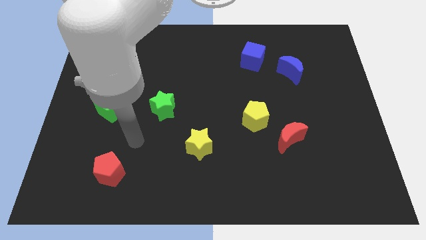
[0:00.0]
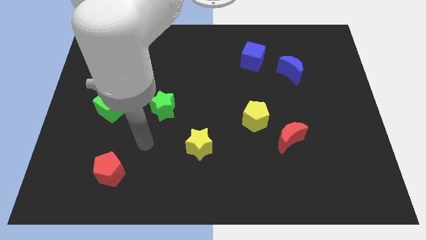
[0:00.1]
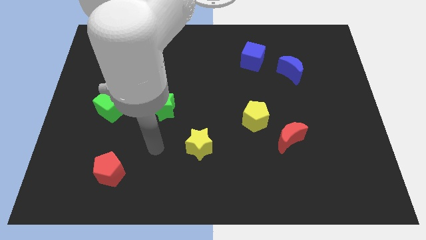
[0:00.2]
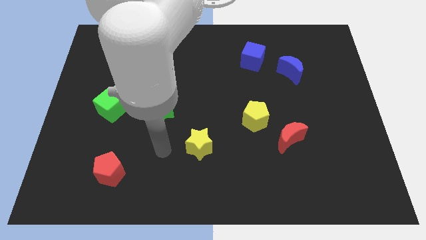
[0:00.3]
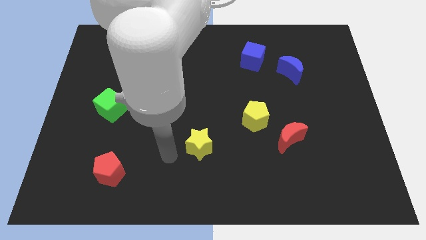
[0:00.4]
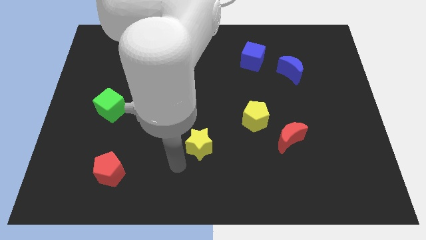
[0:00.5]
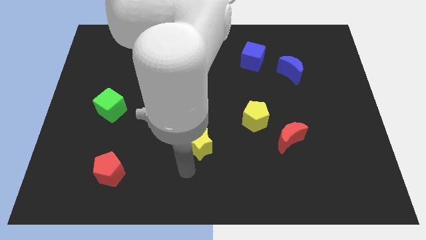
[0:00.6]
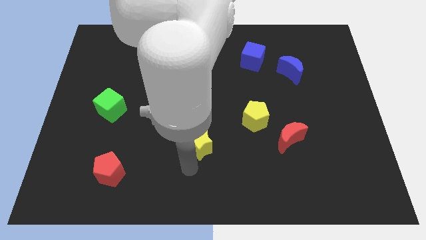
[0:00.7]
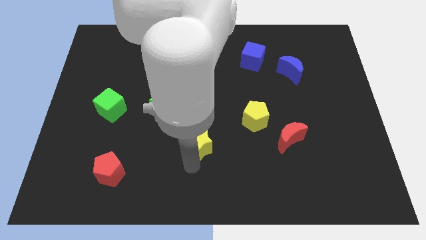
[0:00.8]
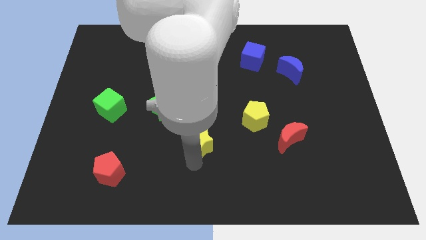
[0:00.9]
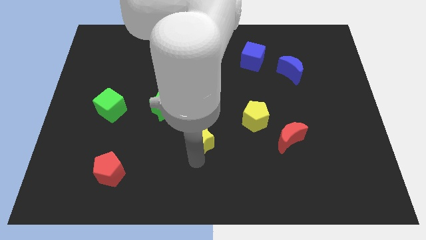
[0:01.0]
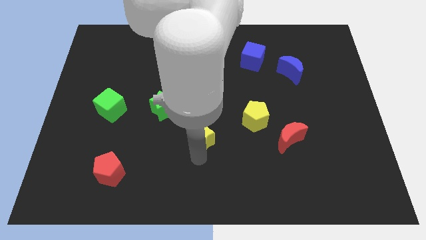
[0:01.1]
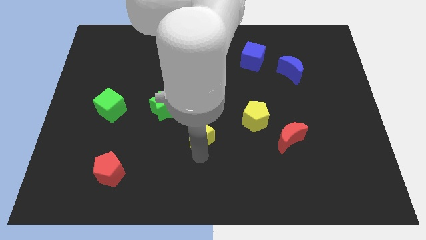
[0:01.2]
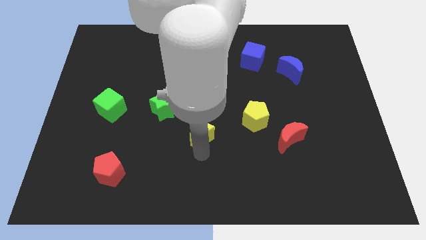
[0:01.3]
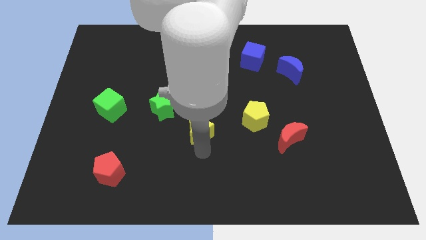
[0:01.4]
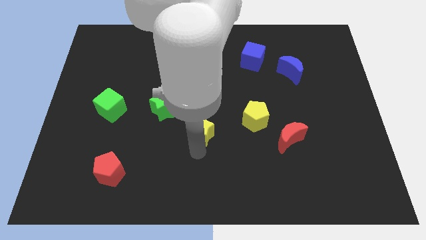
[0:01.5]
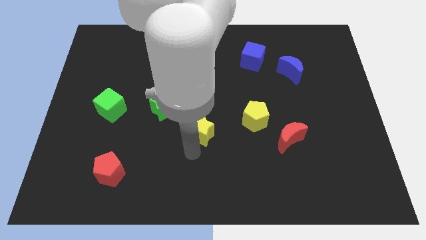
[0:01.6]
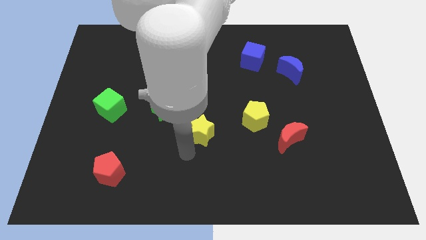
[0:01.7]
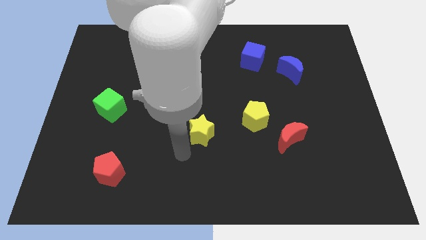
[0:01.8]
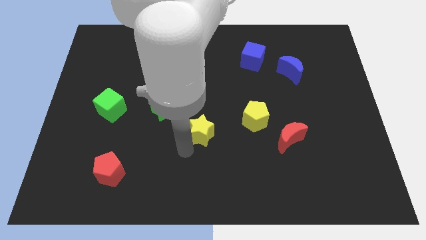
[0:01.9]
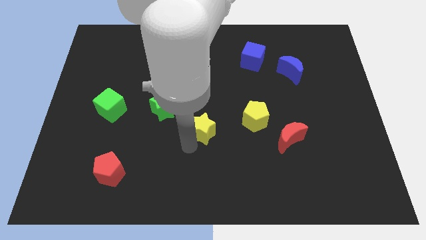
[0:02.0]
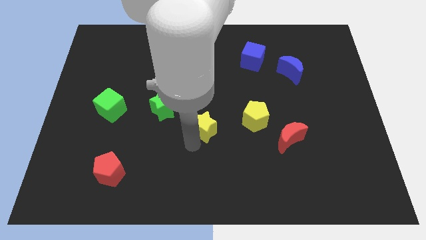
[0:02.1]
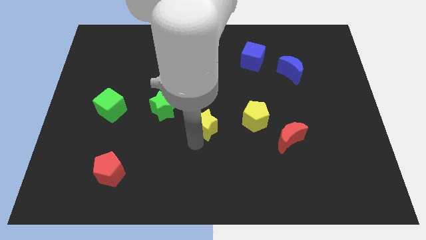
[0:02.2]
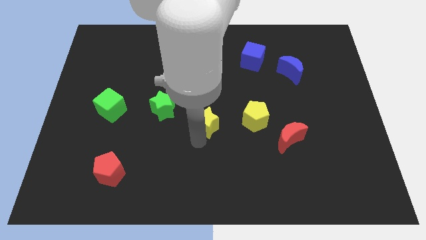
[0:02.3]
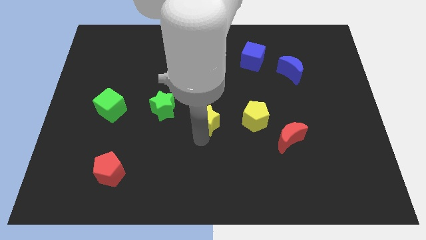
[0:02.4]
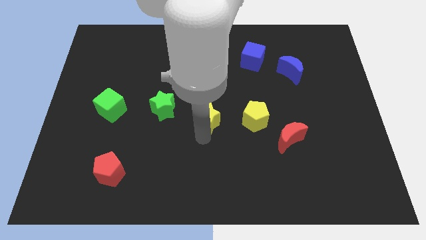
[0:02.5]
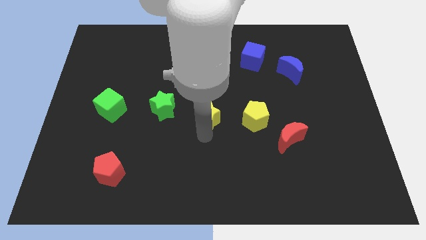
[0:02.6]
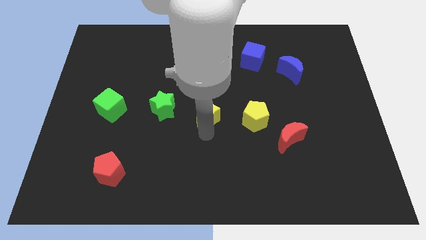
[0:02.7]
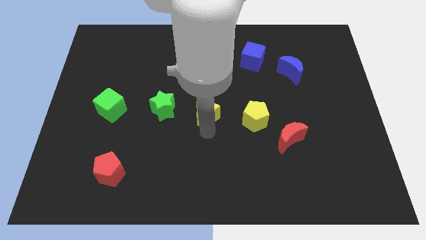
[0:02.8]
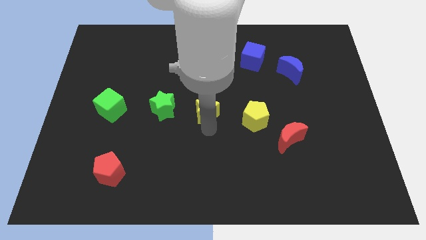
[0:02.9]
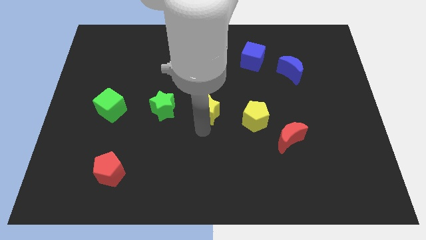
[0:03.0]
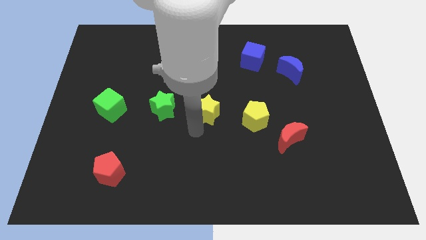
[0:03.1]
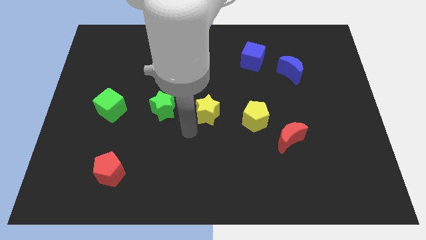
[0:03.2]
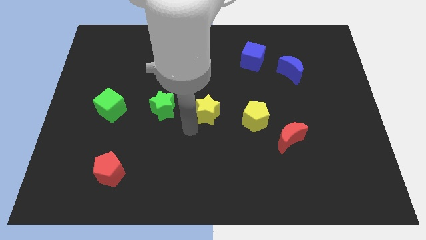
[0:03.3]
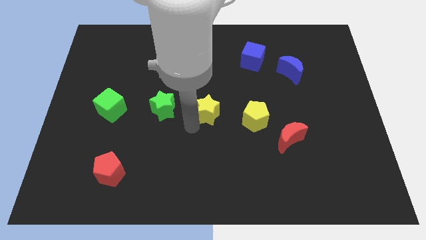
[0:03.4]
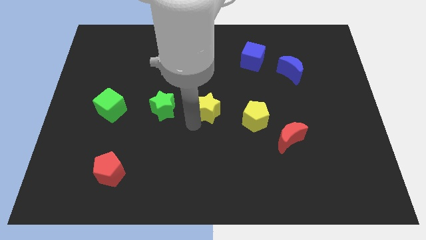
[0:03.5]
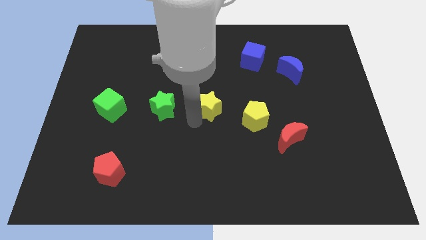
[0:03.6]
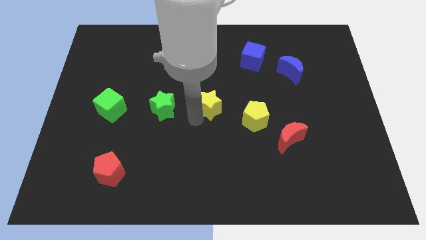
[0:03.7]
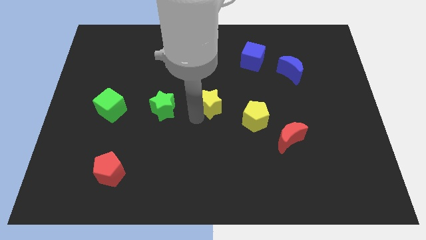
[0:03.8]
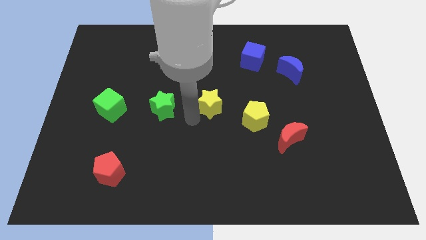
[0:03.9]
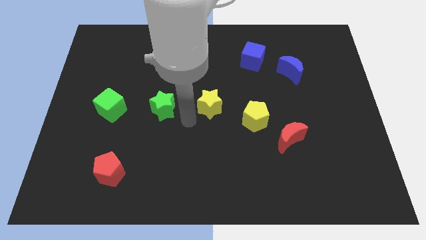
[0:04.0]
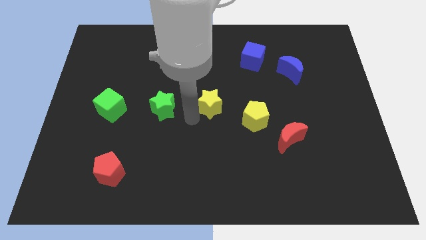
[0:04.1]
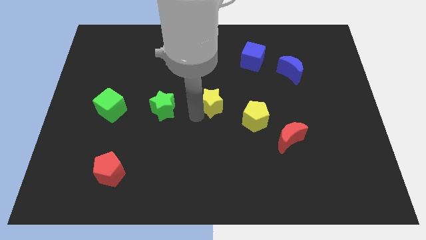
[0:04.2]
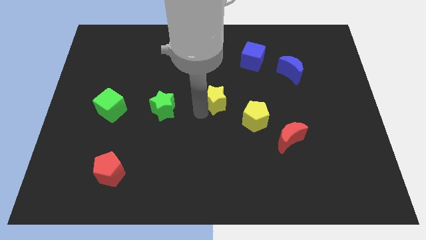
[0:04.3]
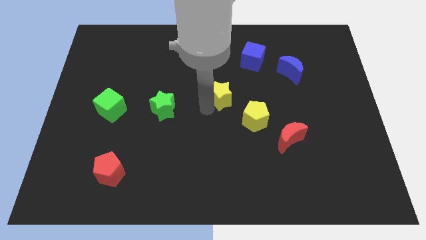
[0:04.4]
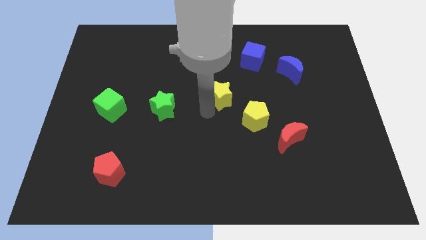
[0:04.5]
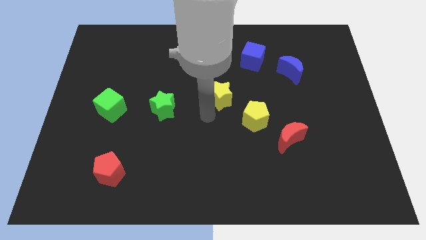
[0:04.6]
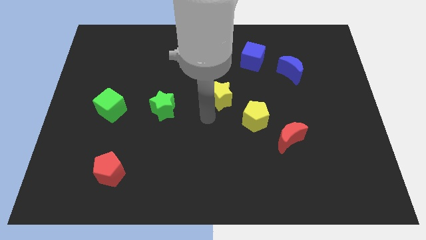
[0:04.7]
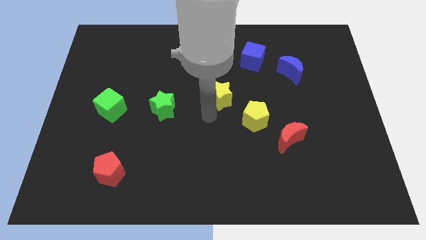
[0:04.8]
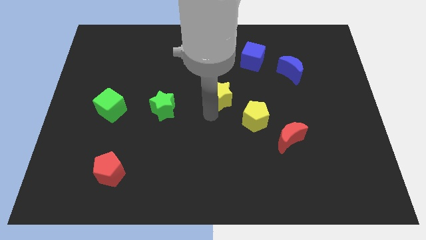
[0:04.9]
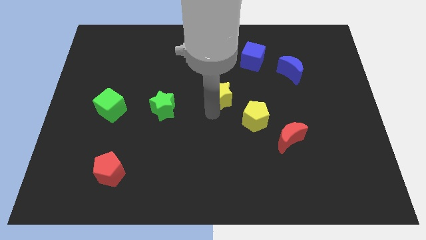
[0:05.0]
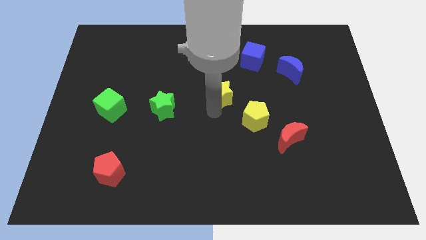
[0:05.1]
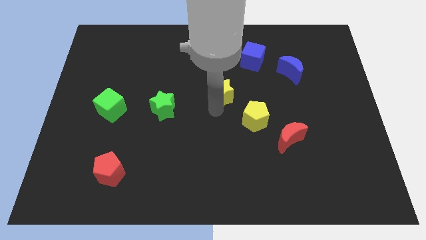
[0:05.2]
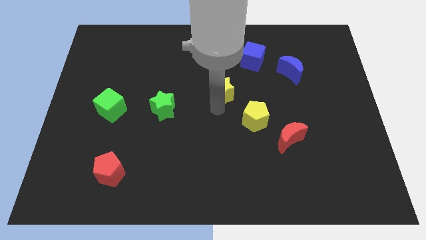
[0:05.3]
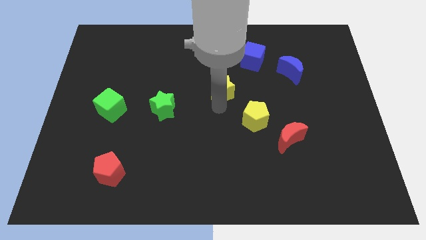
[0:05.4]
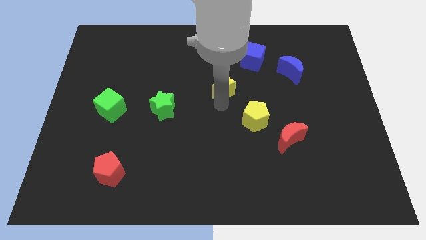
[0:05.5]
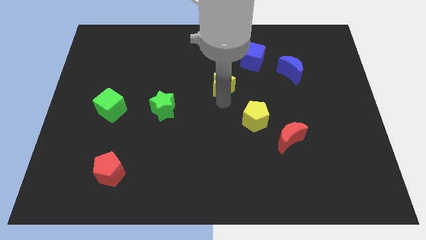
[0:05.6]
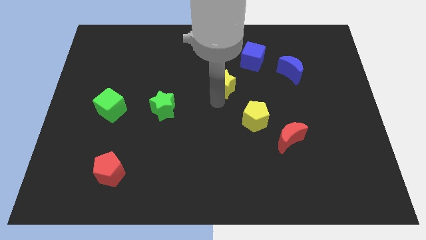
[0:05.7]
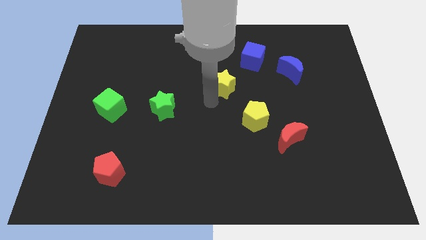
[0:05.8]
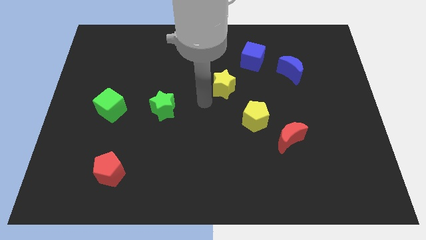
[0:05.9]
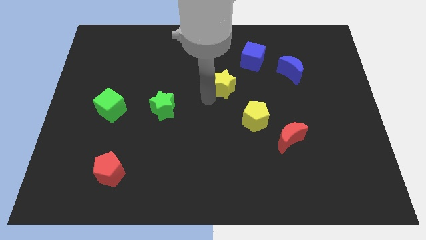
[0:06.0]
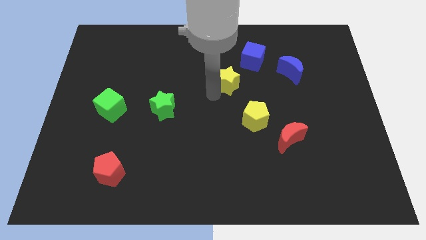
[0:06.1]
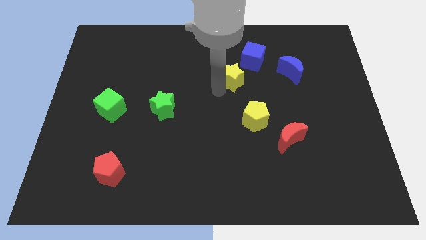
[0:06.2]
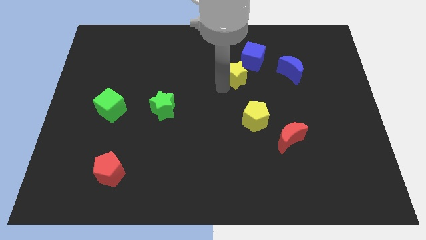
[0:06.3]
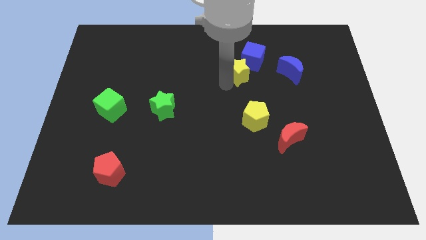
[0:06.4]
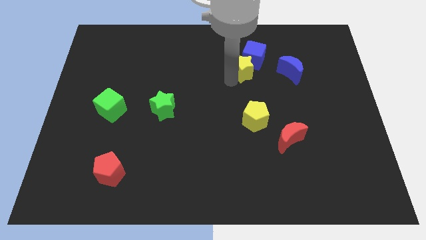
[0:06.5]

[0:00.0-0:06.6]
push the yellow star next to the blue cube

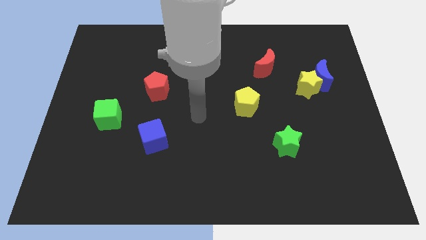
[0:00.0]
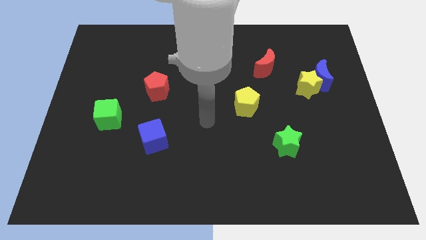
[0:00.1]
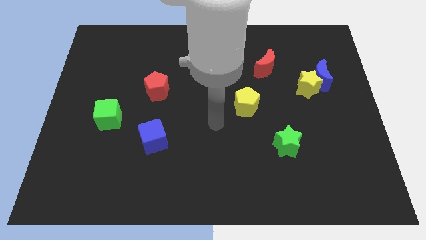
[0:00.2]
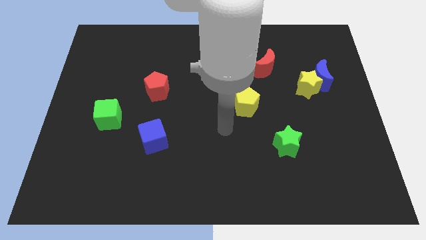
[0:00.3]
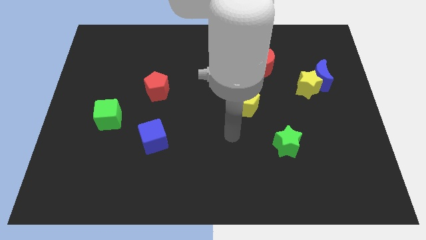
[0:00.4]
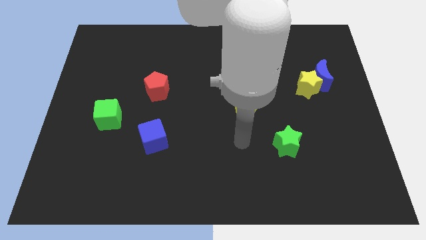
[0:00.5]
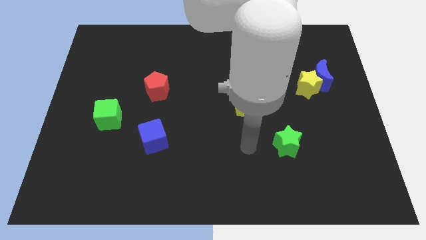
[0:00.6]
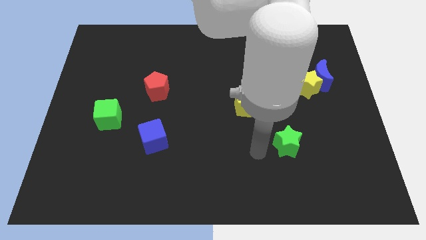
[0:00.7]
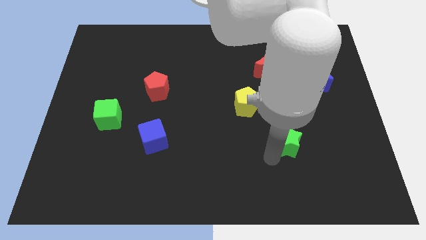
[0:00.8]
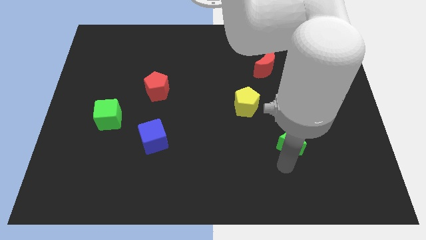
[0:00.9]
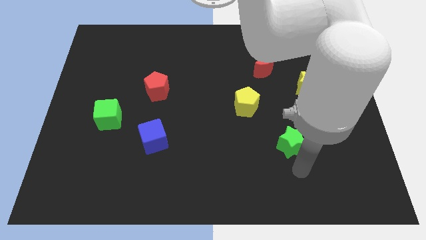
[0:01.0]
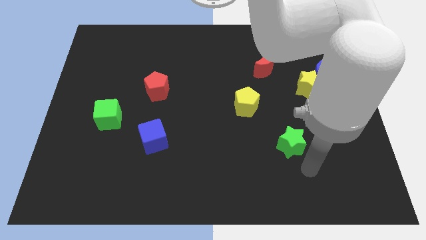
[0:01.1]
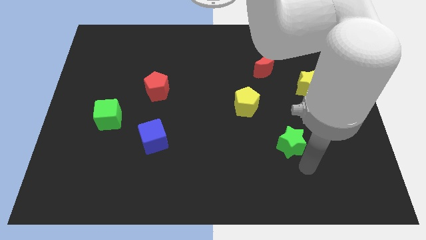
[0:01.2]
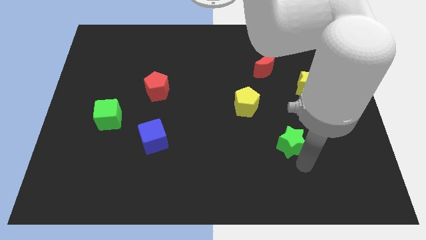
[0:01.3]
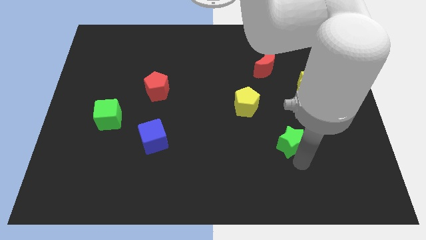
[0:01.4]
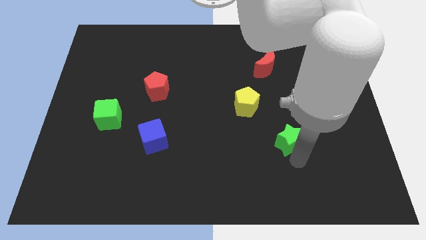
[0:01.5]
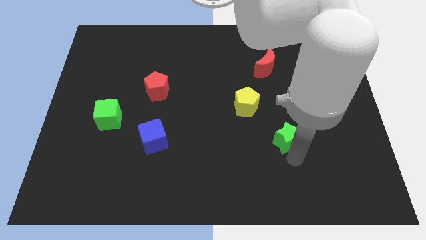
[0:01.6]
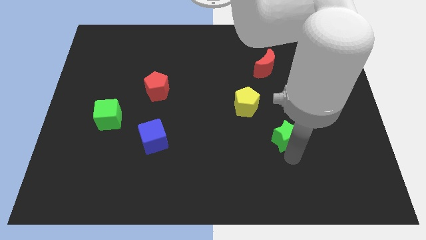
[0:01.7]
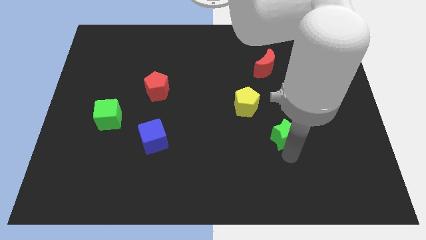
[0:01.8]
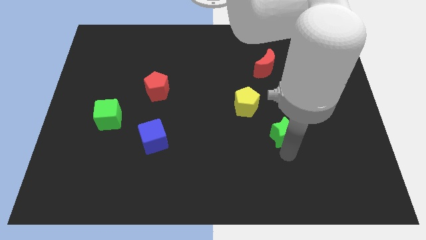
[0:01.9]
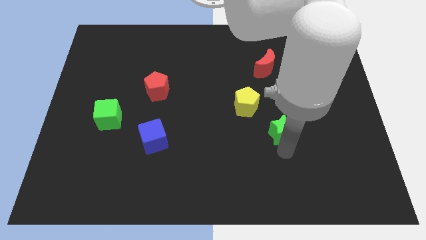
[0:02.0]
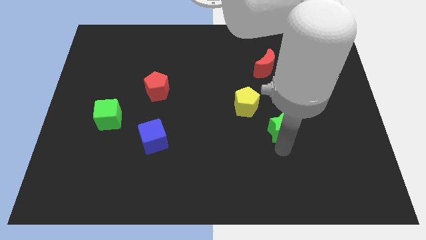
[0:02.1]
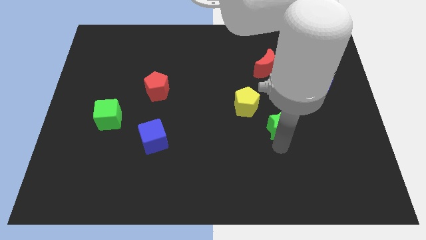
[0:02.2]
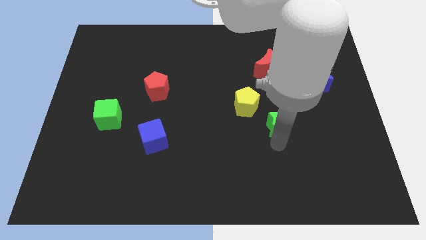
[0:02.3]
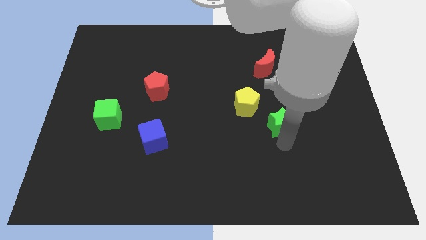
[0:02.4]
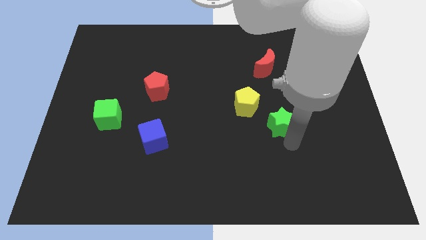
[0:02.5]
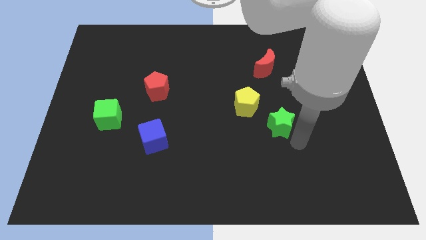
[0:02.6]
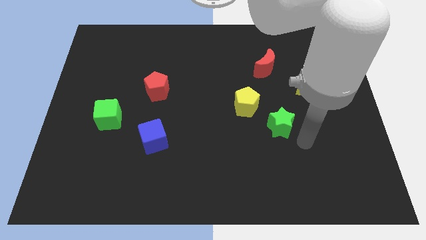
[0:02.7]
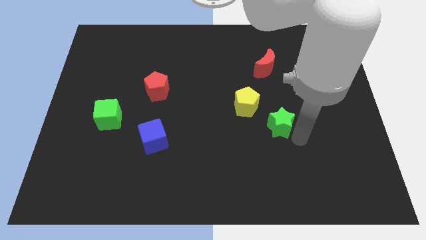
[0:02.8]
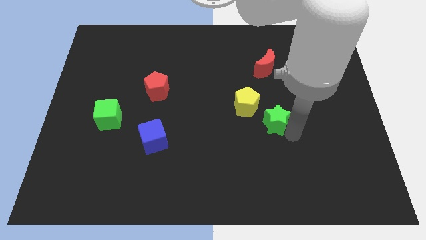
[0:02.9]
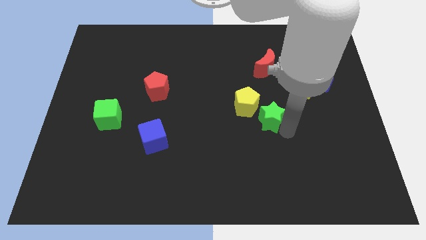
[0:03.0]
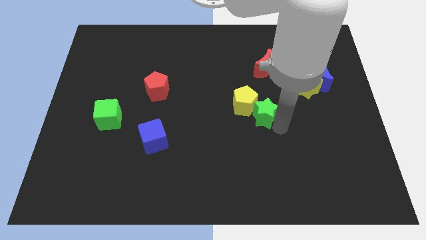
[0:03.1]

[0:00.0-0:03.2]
slide the green star towards the yellow pentagon
